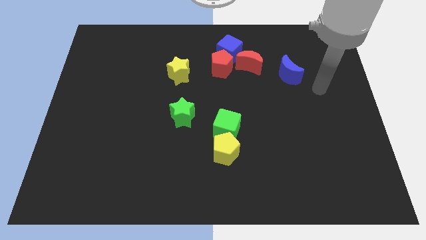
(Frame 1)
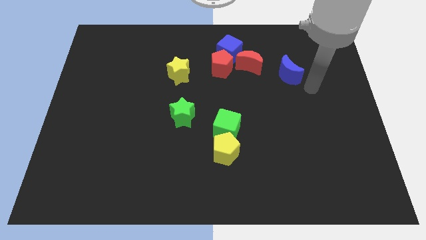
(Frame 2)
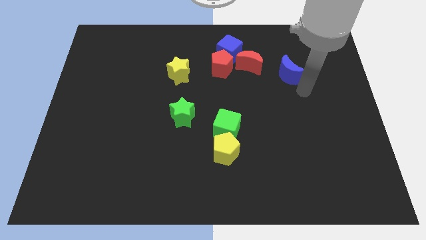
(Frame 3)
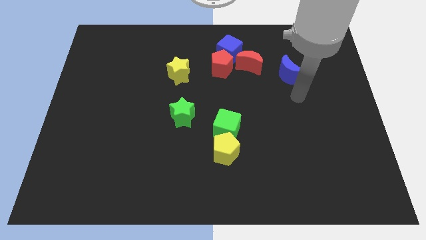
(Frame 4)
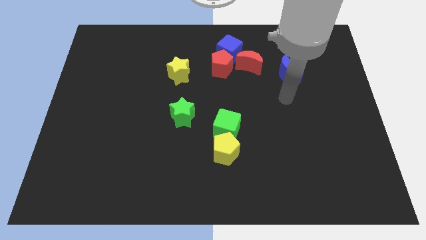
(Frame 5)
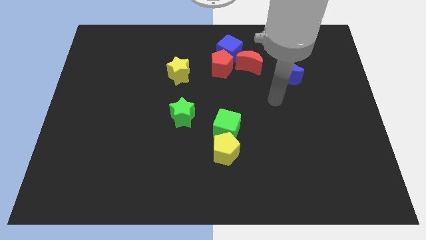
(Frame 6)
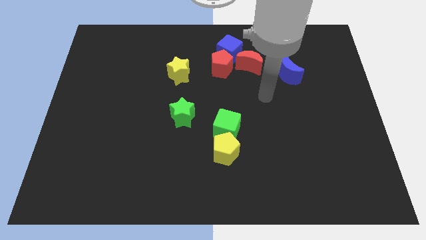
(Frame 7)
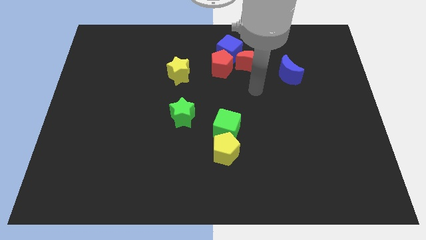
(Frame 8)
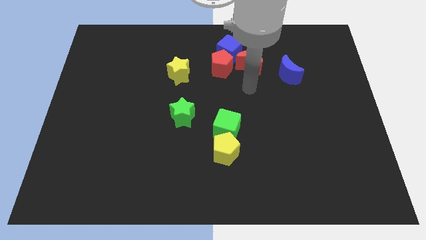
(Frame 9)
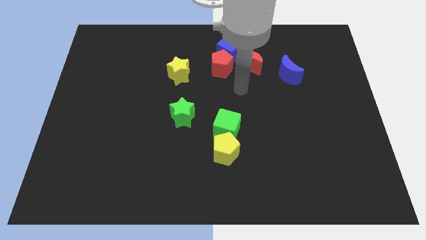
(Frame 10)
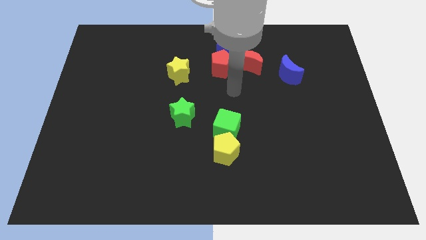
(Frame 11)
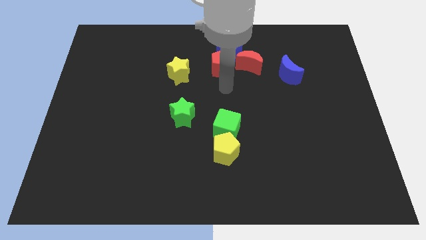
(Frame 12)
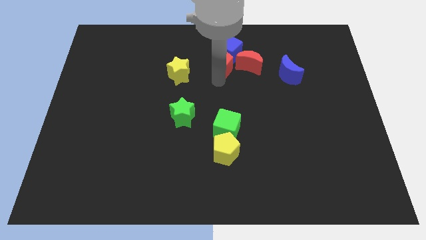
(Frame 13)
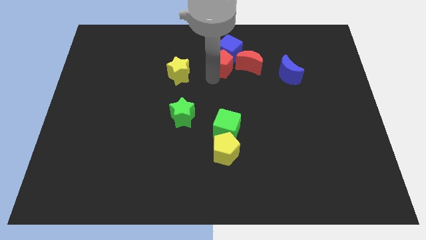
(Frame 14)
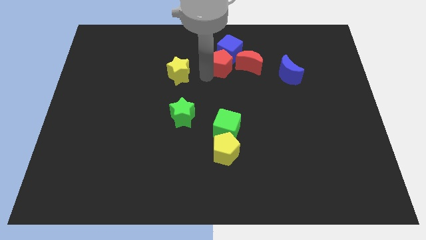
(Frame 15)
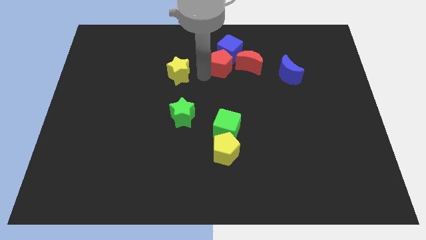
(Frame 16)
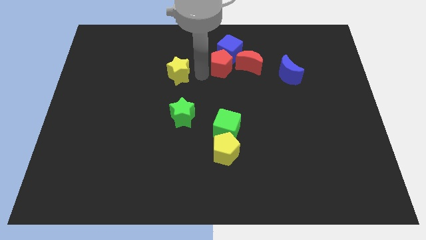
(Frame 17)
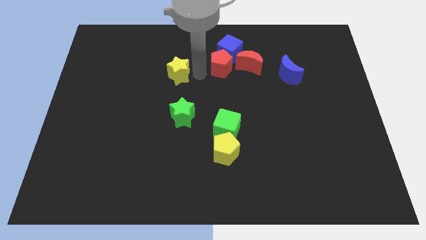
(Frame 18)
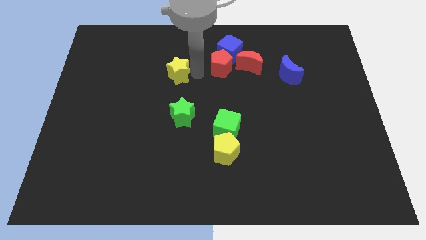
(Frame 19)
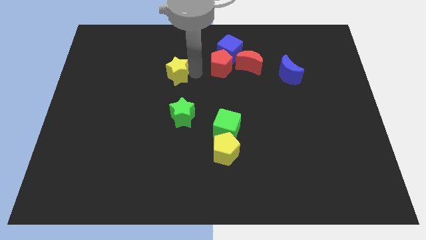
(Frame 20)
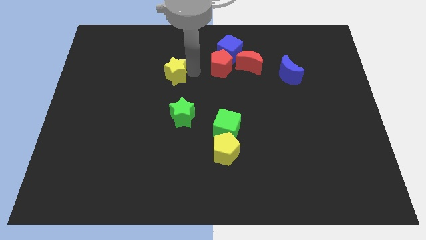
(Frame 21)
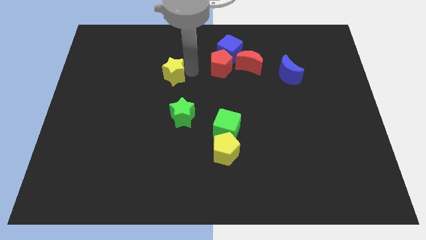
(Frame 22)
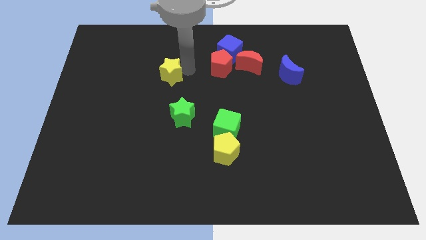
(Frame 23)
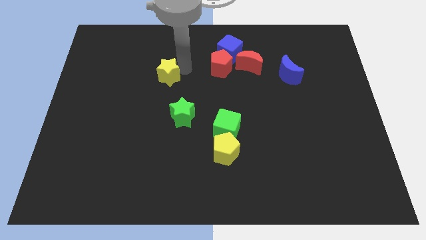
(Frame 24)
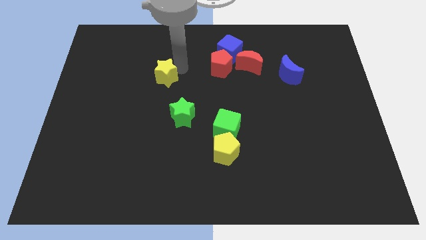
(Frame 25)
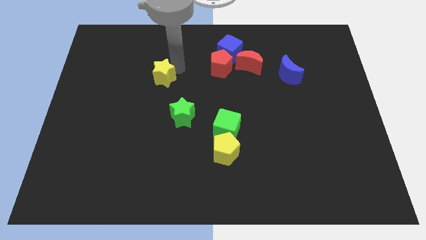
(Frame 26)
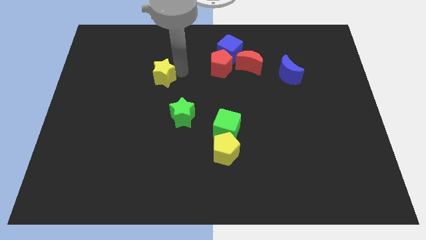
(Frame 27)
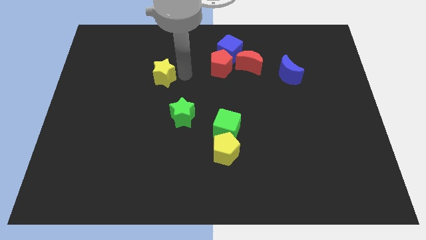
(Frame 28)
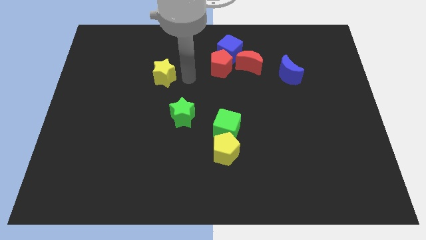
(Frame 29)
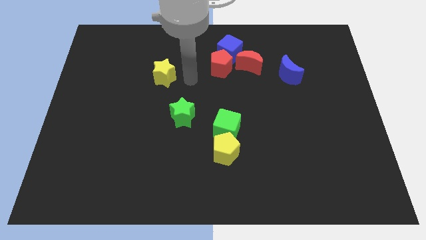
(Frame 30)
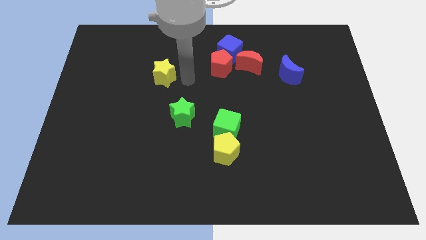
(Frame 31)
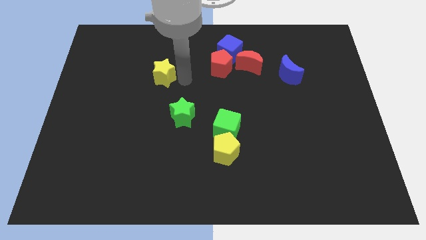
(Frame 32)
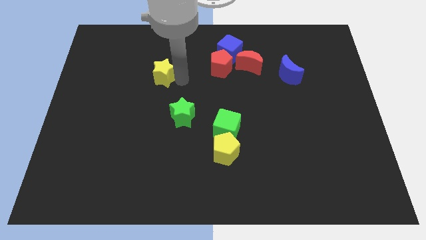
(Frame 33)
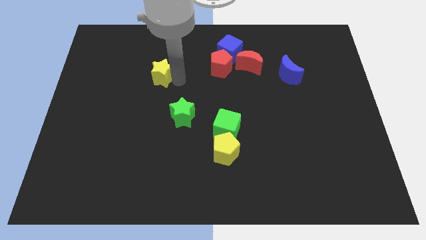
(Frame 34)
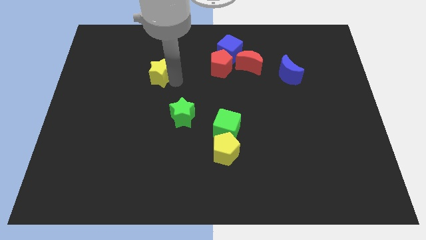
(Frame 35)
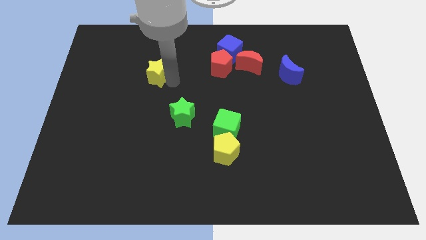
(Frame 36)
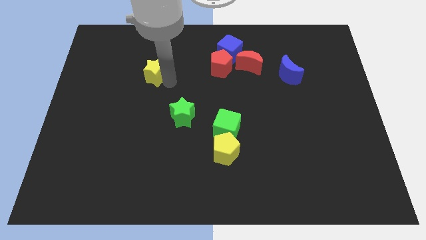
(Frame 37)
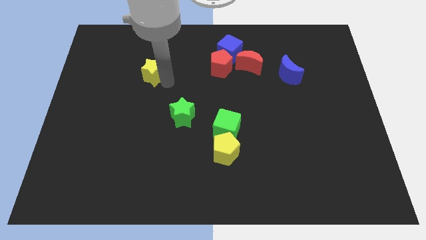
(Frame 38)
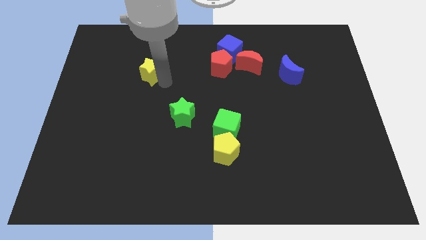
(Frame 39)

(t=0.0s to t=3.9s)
slide the yellow star left a bit

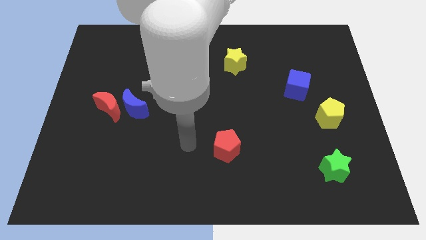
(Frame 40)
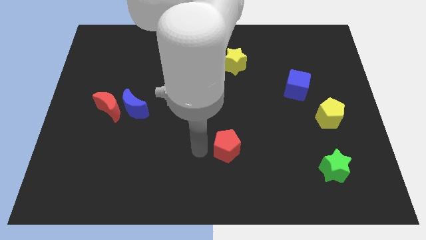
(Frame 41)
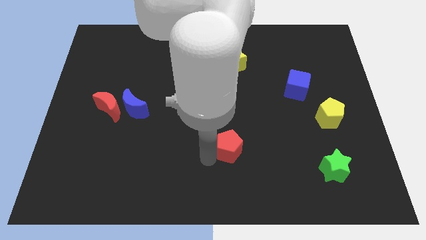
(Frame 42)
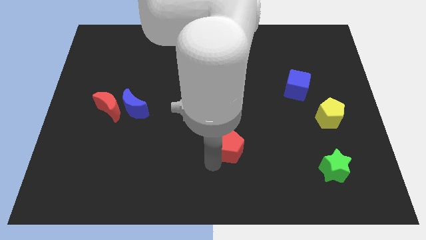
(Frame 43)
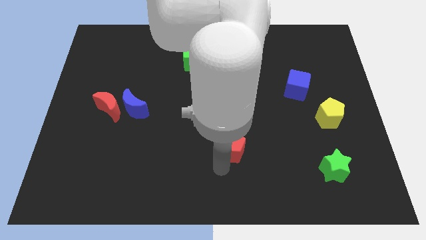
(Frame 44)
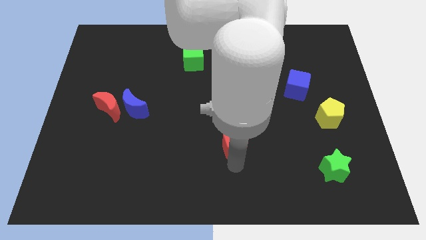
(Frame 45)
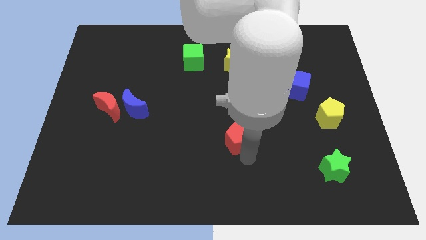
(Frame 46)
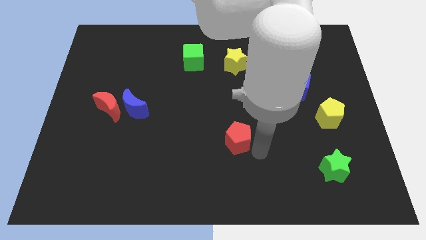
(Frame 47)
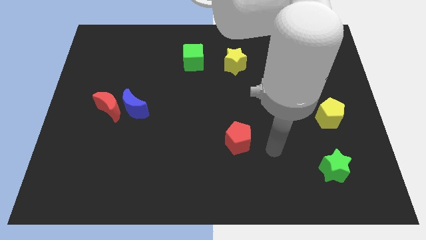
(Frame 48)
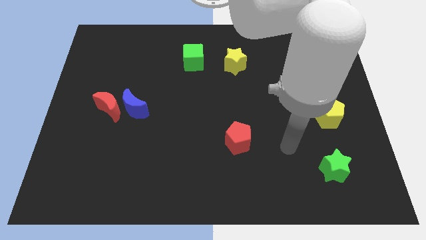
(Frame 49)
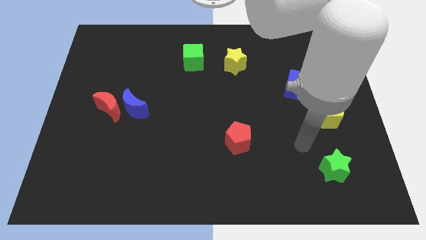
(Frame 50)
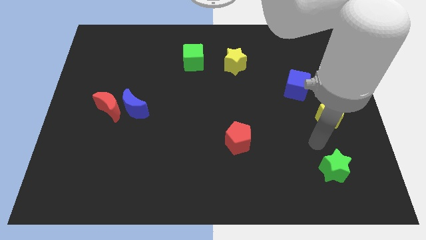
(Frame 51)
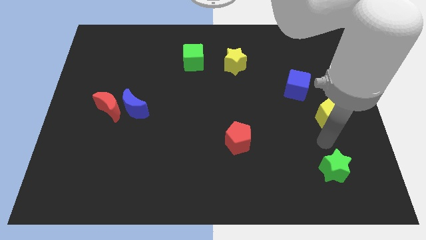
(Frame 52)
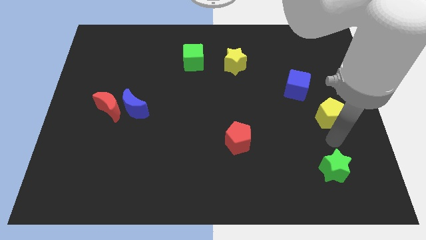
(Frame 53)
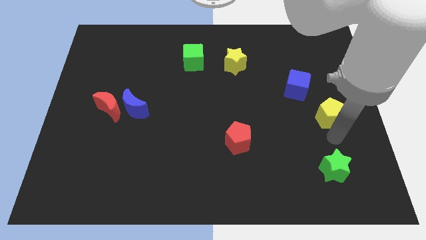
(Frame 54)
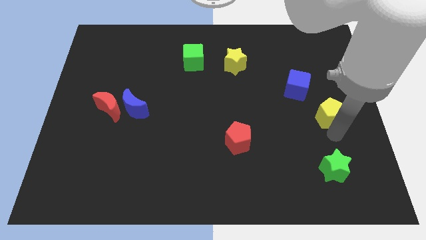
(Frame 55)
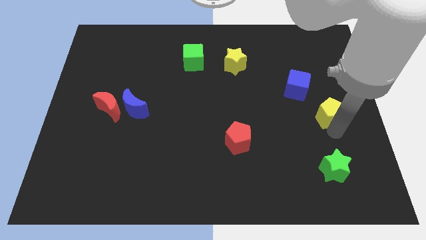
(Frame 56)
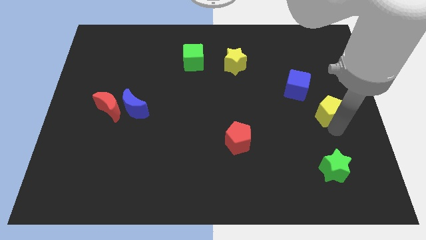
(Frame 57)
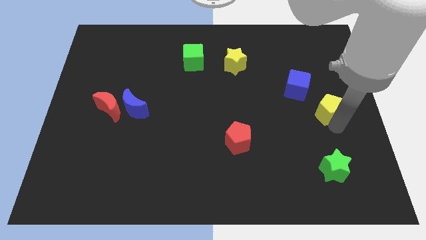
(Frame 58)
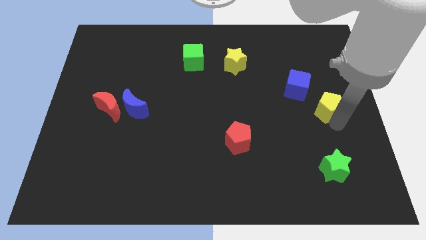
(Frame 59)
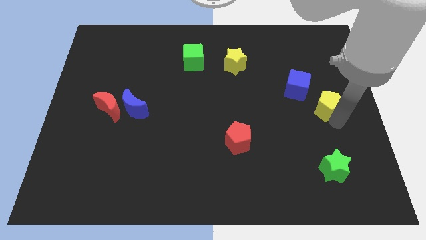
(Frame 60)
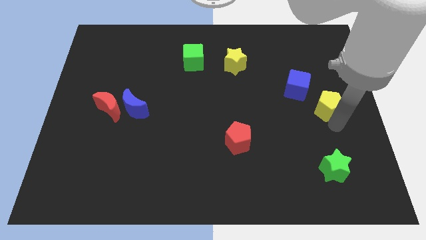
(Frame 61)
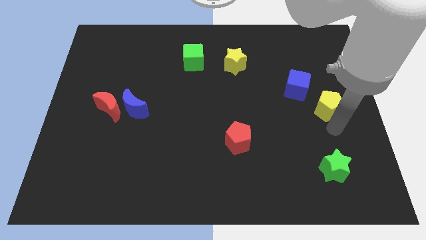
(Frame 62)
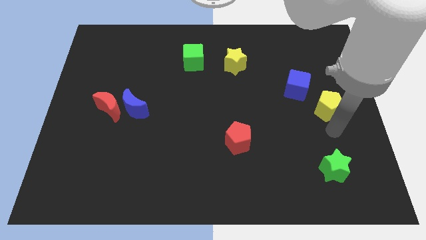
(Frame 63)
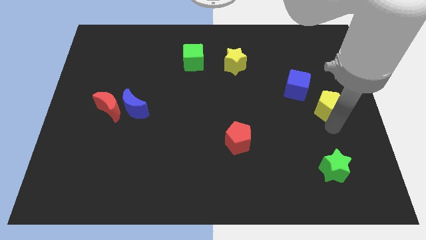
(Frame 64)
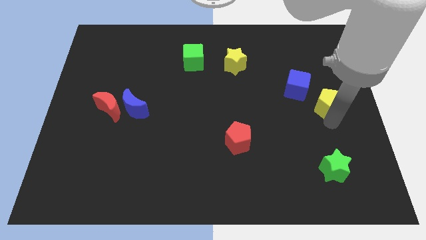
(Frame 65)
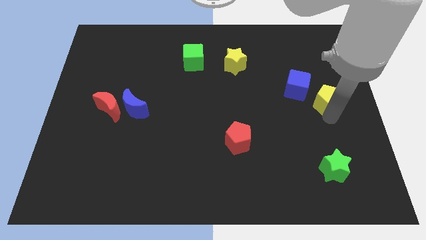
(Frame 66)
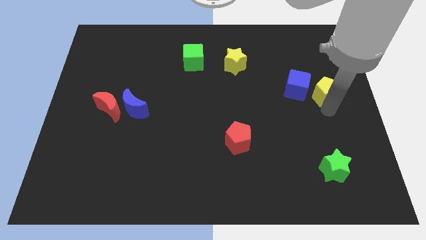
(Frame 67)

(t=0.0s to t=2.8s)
move the yellow pentagon a little bit upwards

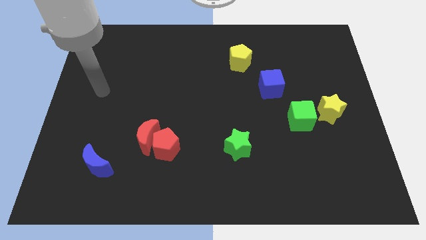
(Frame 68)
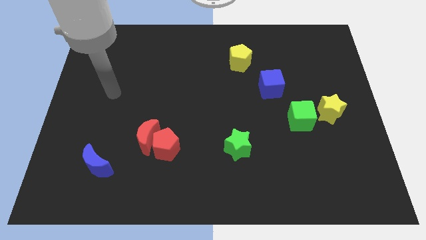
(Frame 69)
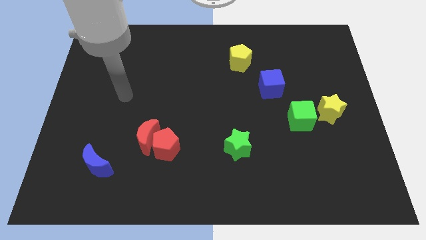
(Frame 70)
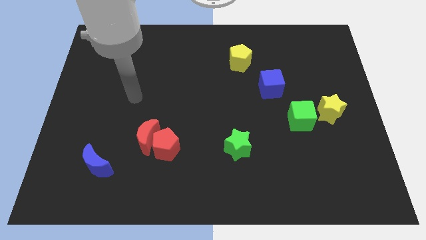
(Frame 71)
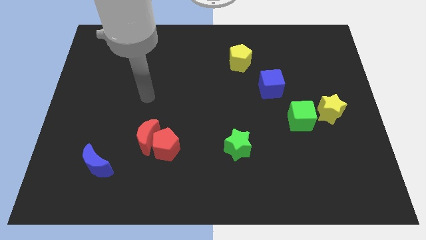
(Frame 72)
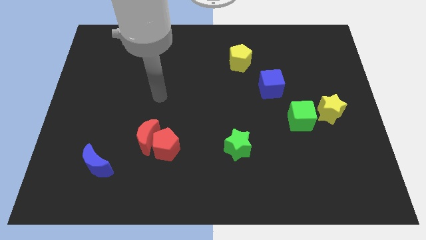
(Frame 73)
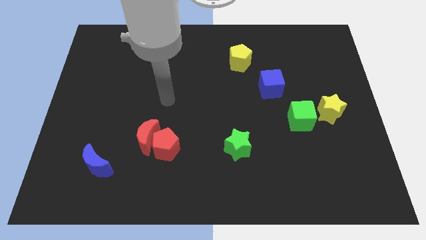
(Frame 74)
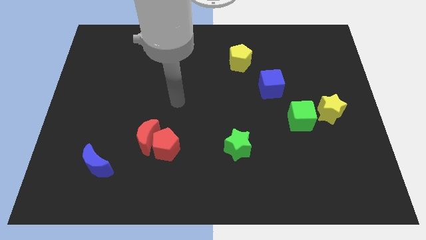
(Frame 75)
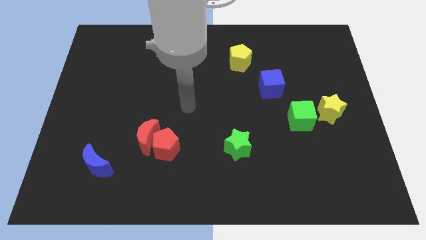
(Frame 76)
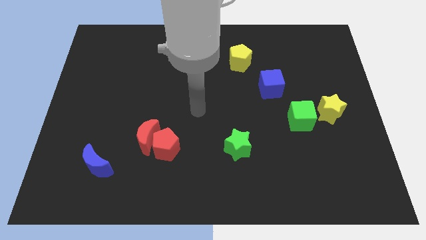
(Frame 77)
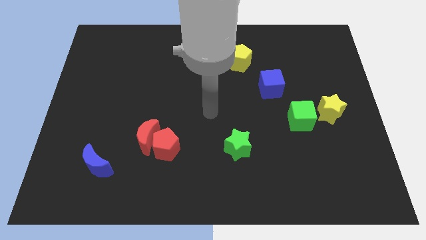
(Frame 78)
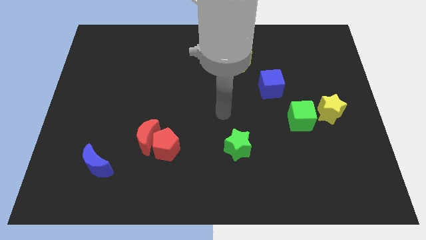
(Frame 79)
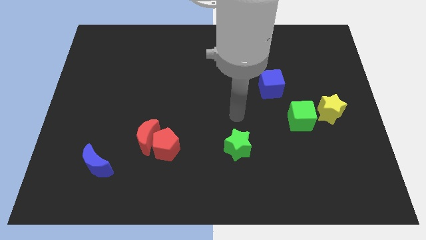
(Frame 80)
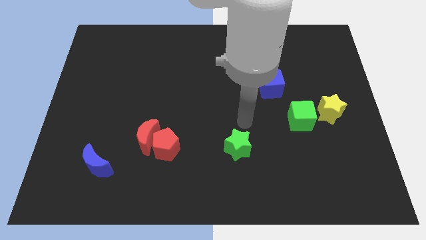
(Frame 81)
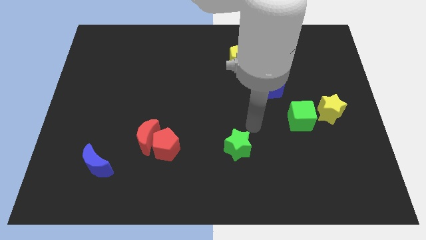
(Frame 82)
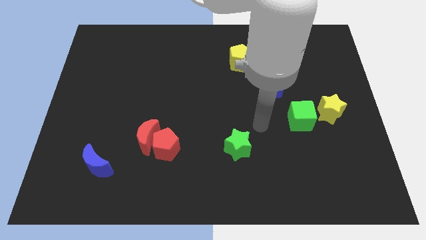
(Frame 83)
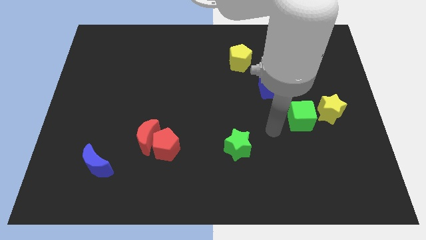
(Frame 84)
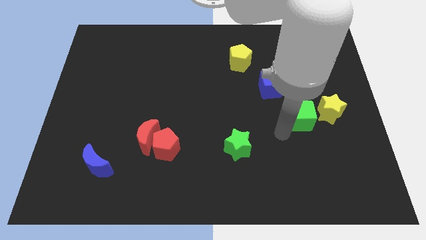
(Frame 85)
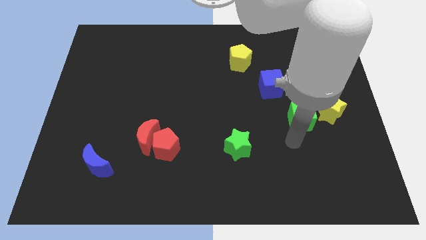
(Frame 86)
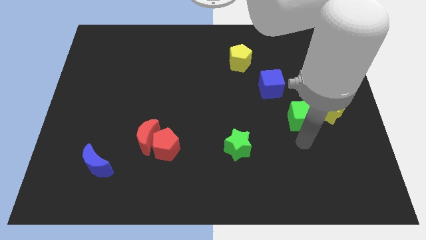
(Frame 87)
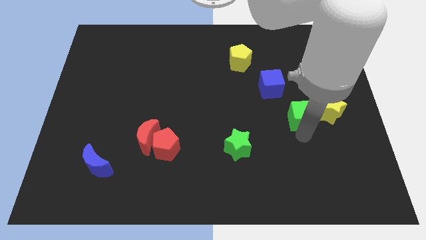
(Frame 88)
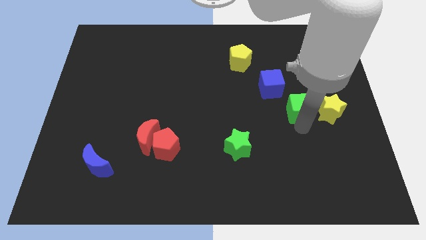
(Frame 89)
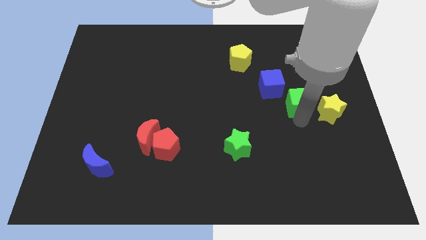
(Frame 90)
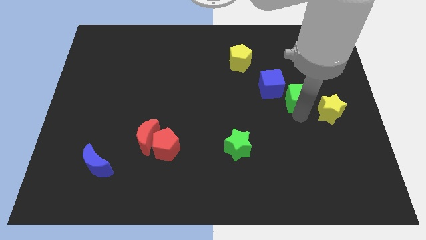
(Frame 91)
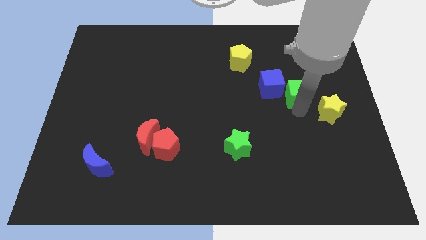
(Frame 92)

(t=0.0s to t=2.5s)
move the green cube slightly up
